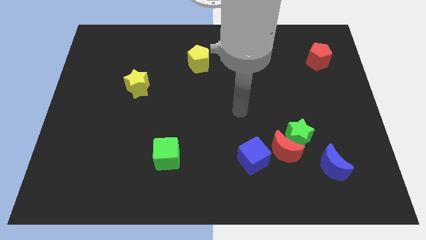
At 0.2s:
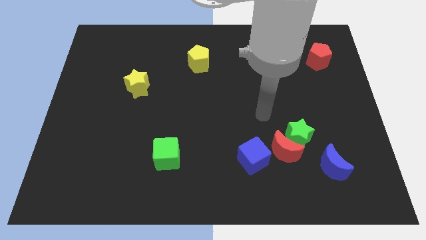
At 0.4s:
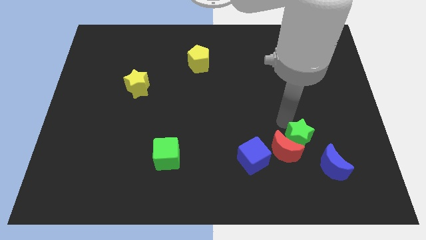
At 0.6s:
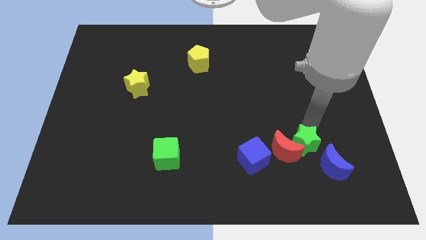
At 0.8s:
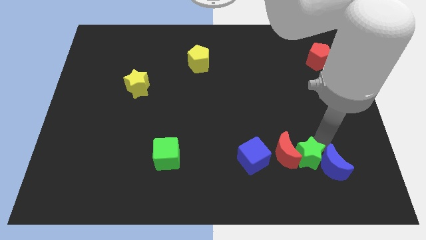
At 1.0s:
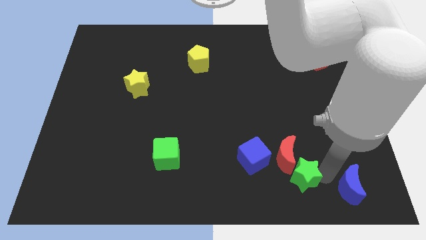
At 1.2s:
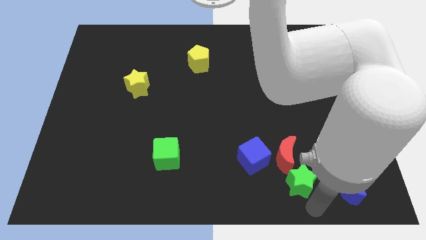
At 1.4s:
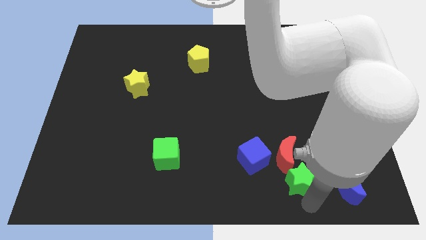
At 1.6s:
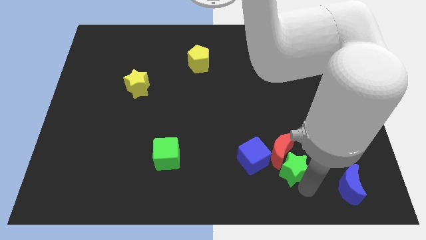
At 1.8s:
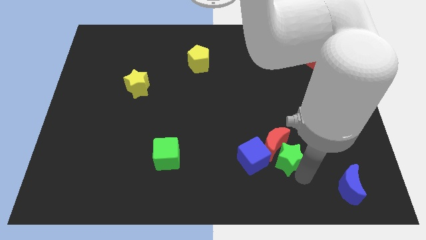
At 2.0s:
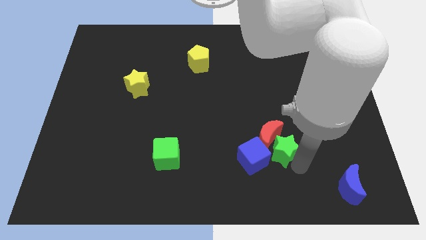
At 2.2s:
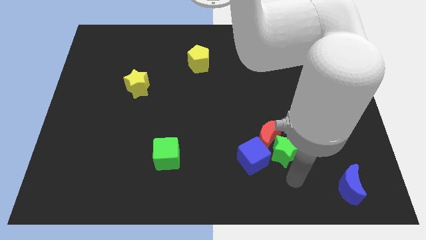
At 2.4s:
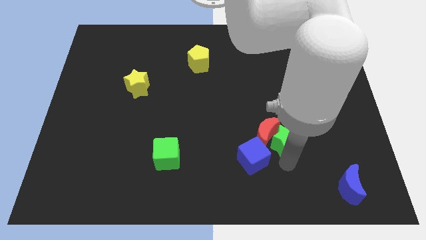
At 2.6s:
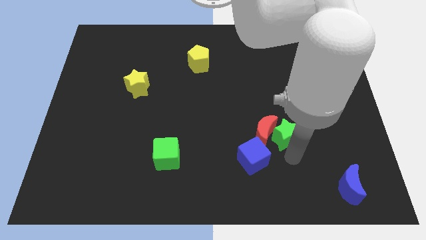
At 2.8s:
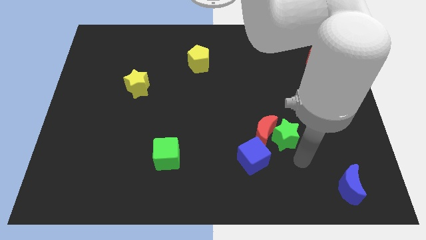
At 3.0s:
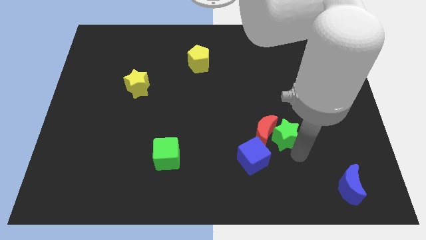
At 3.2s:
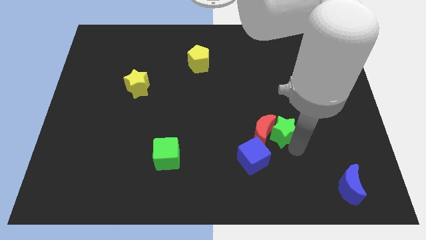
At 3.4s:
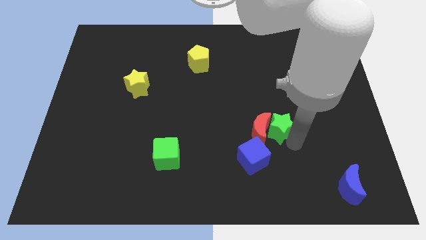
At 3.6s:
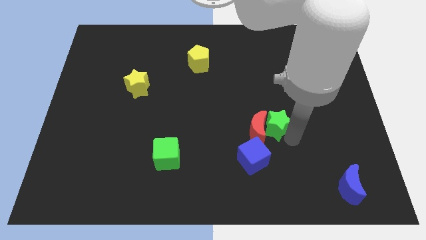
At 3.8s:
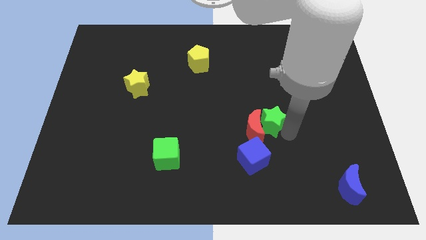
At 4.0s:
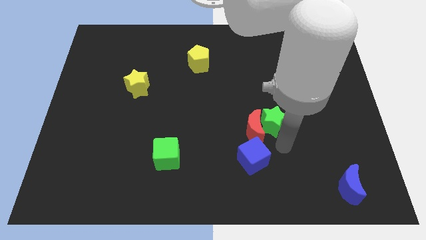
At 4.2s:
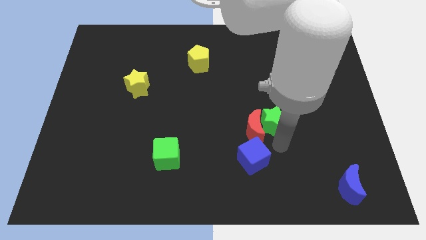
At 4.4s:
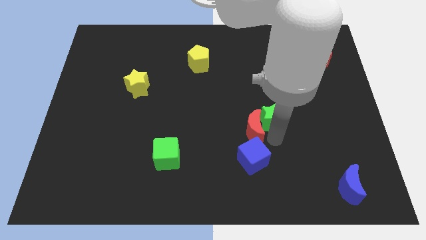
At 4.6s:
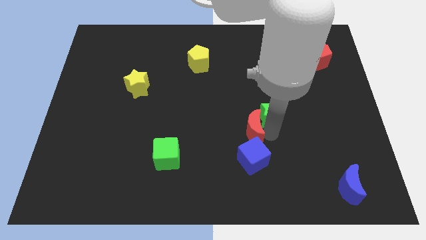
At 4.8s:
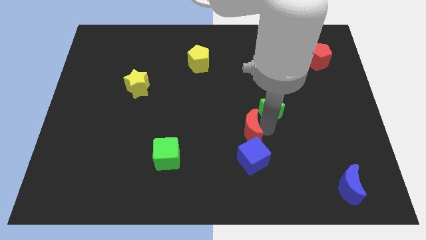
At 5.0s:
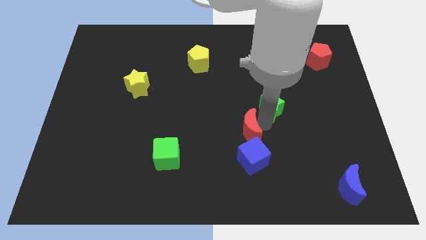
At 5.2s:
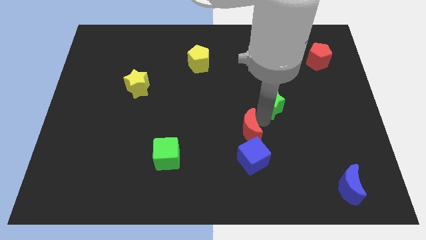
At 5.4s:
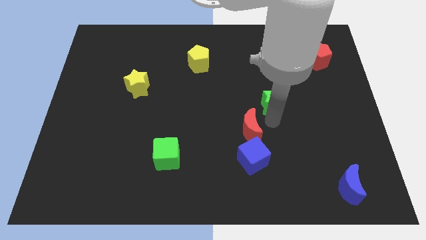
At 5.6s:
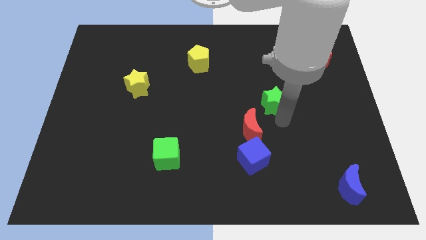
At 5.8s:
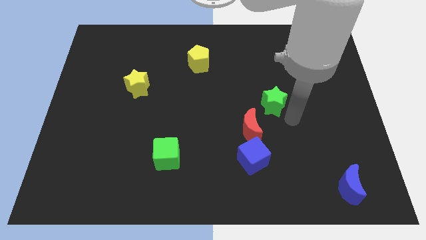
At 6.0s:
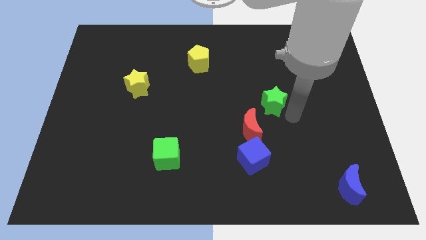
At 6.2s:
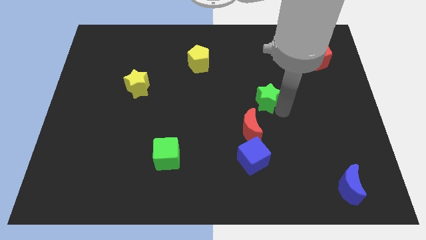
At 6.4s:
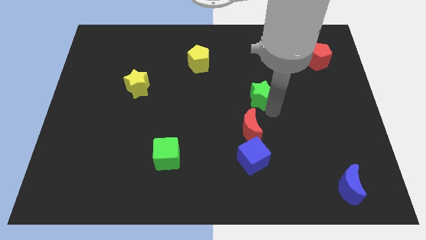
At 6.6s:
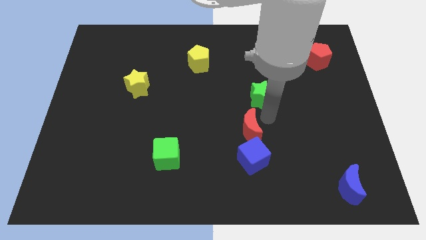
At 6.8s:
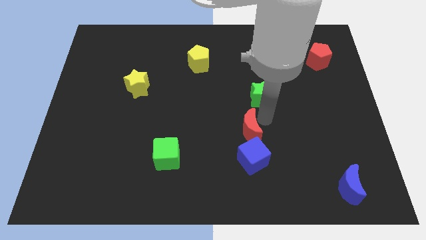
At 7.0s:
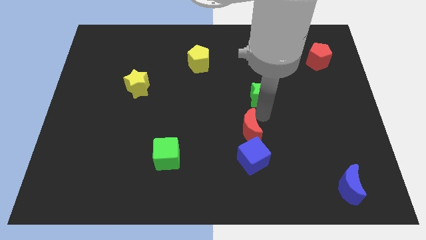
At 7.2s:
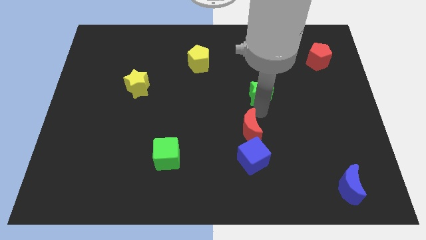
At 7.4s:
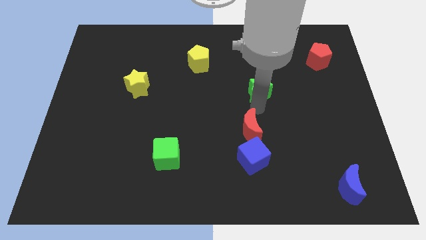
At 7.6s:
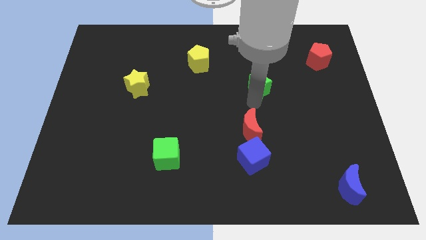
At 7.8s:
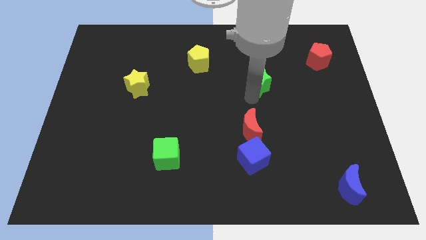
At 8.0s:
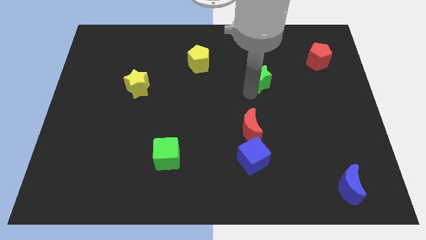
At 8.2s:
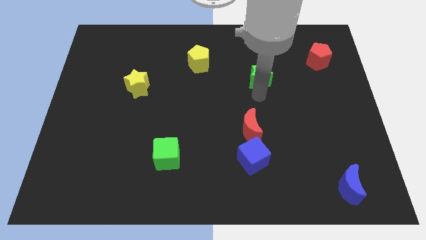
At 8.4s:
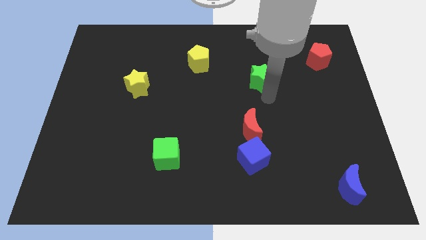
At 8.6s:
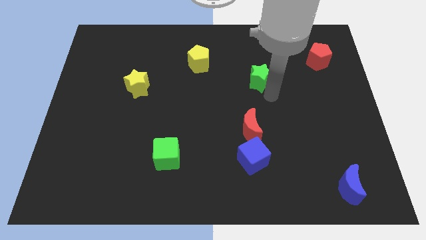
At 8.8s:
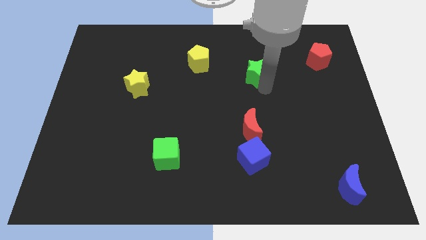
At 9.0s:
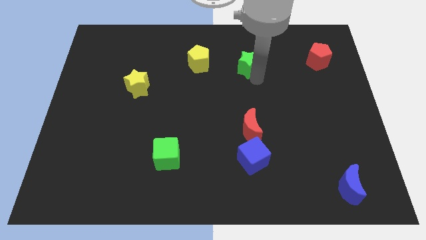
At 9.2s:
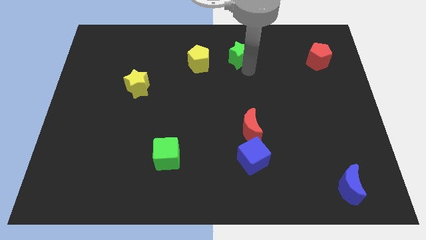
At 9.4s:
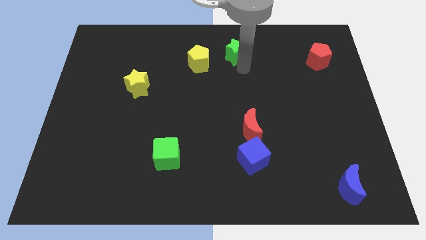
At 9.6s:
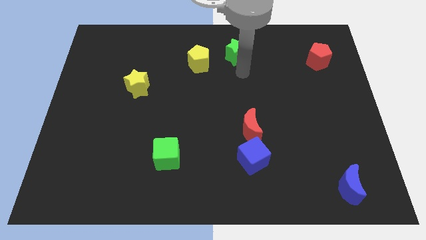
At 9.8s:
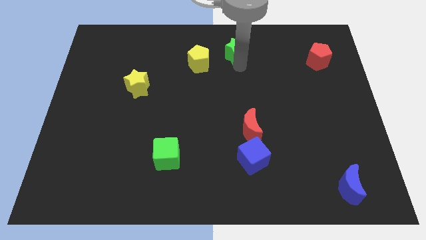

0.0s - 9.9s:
move the green star to the top

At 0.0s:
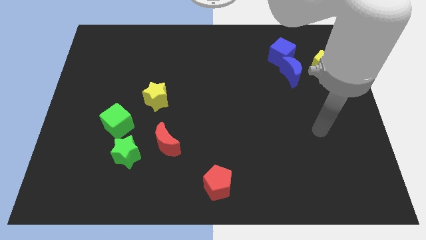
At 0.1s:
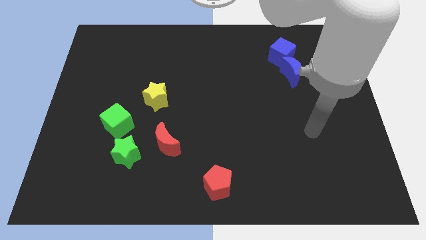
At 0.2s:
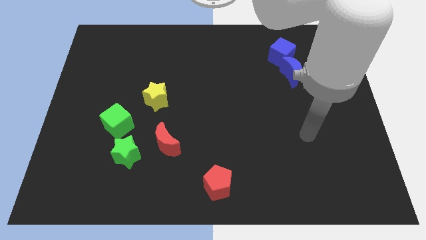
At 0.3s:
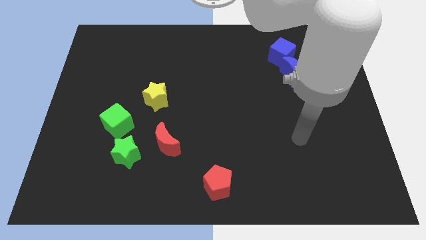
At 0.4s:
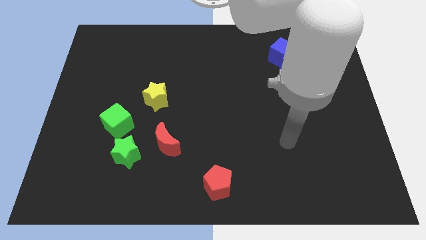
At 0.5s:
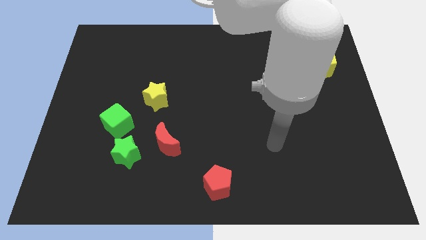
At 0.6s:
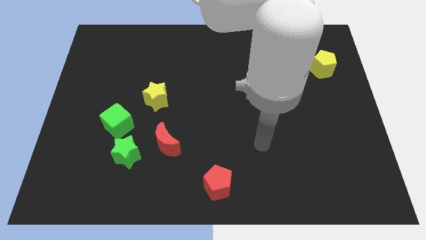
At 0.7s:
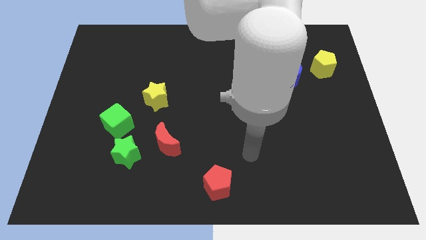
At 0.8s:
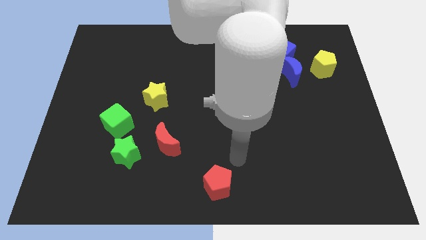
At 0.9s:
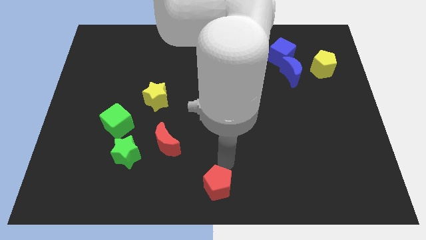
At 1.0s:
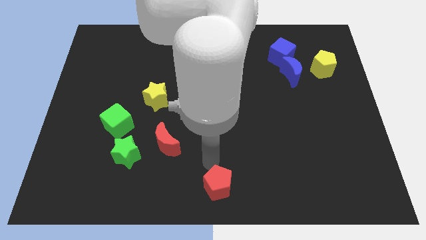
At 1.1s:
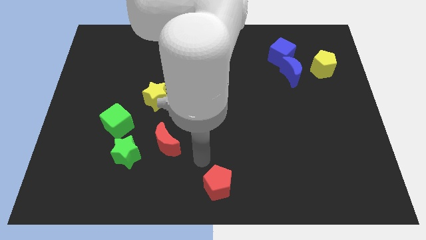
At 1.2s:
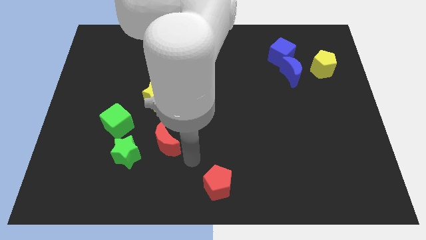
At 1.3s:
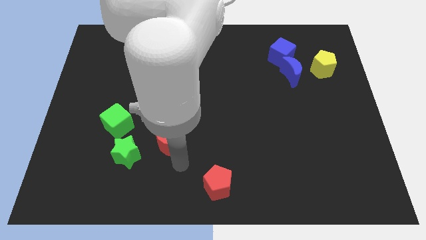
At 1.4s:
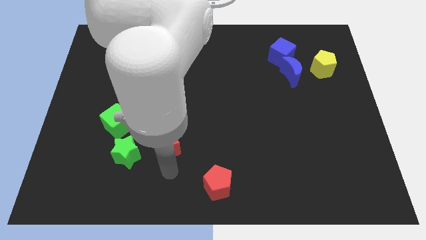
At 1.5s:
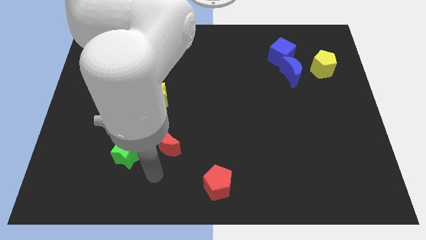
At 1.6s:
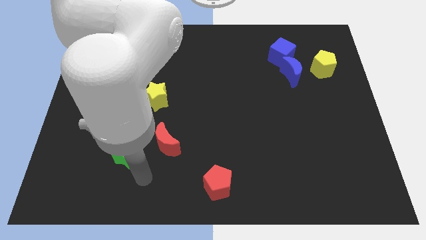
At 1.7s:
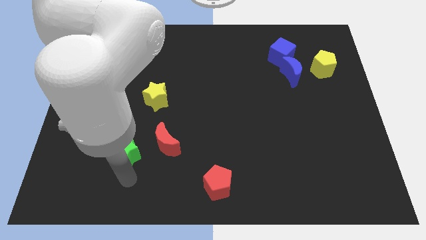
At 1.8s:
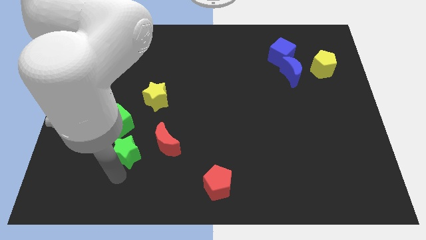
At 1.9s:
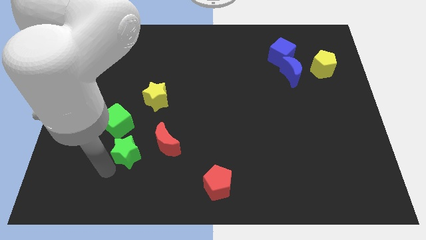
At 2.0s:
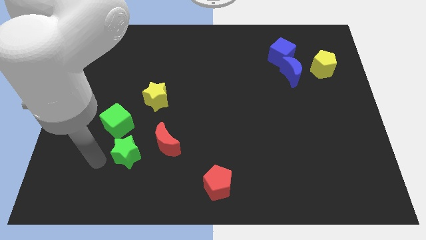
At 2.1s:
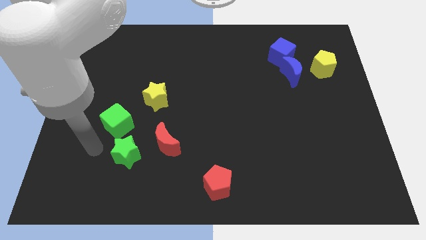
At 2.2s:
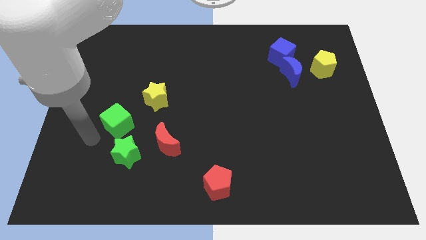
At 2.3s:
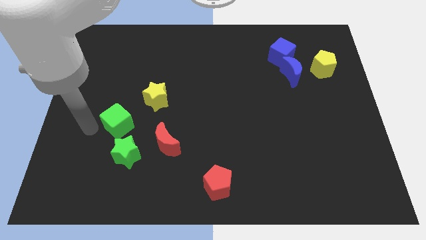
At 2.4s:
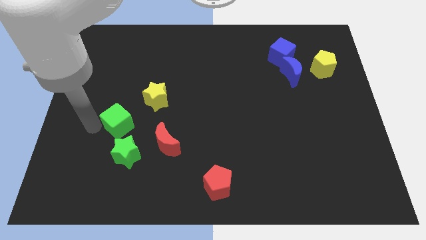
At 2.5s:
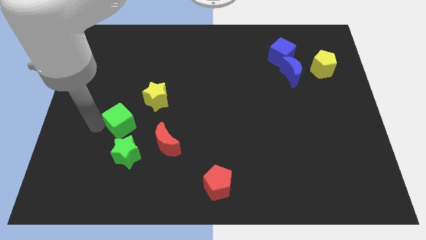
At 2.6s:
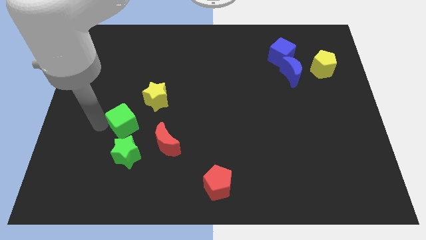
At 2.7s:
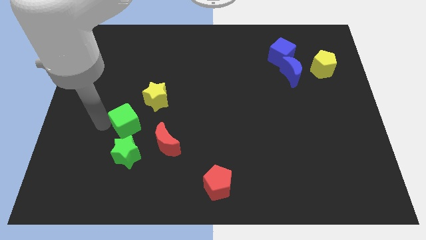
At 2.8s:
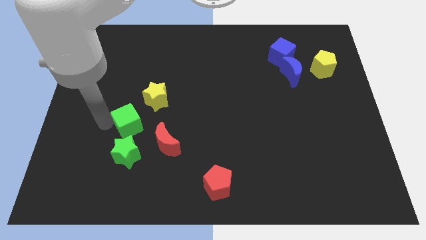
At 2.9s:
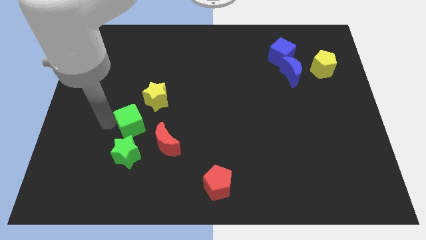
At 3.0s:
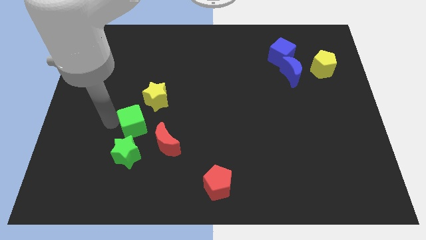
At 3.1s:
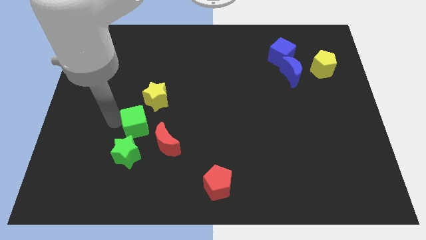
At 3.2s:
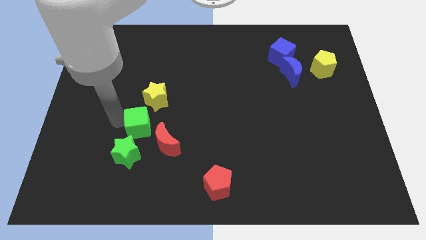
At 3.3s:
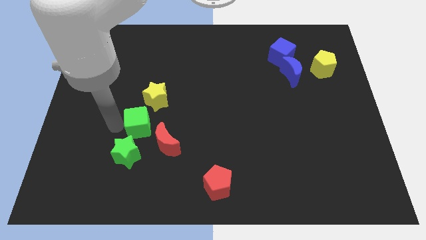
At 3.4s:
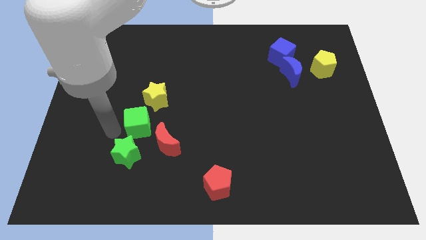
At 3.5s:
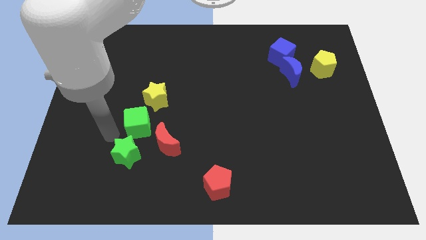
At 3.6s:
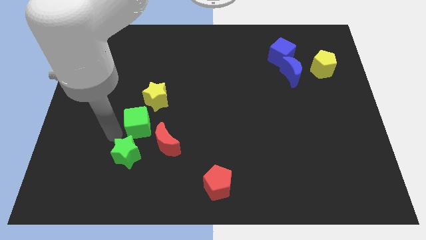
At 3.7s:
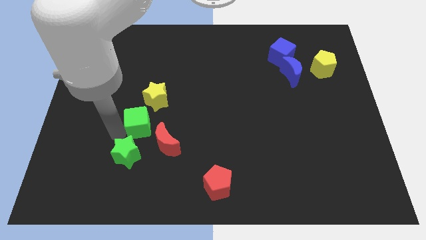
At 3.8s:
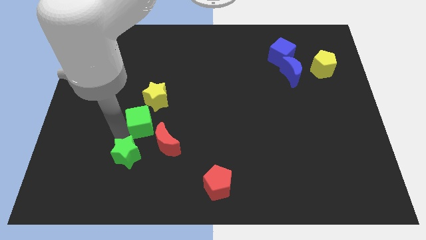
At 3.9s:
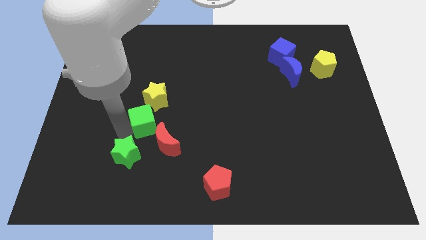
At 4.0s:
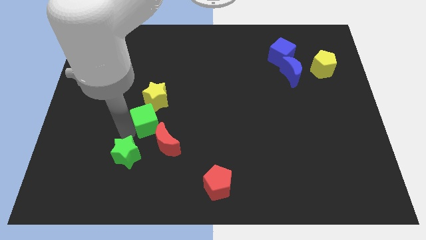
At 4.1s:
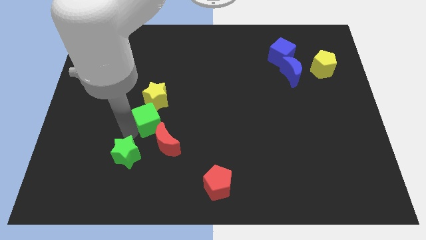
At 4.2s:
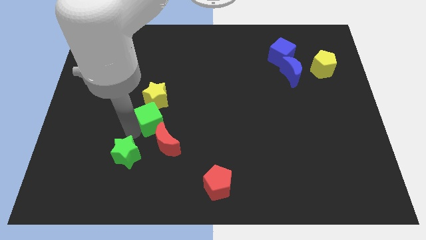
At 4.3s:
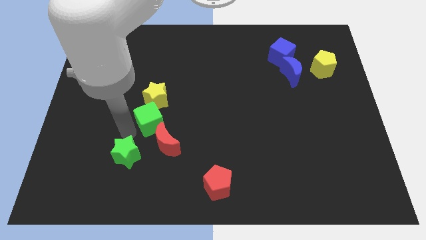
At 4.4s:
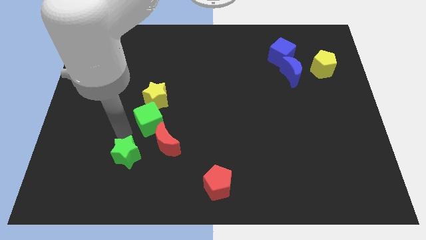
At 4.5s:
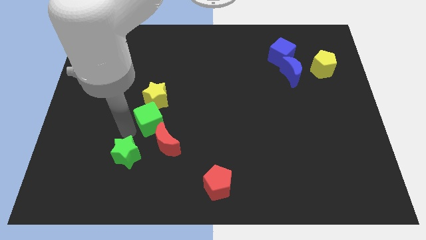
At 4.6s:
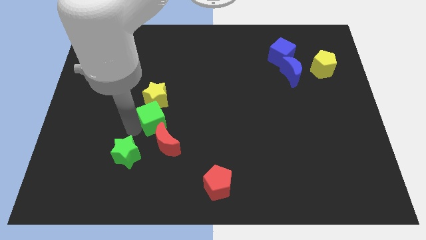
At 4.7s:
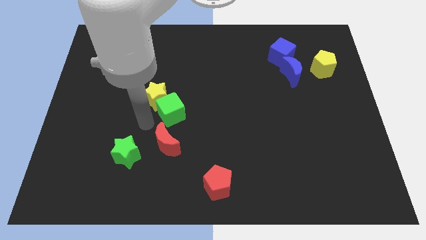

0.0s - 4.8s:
put the green cube to the center
